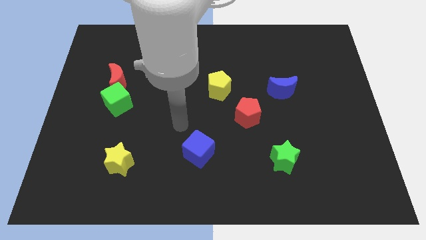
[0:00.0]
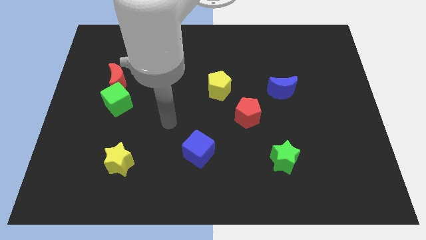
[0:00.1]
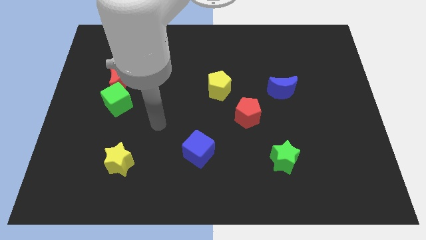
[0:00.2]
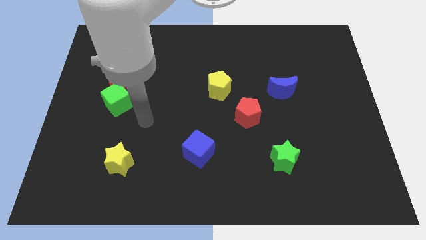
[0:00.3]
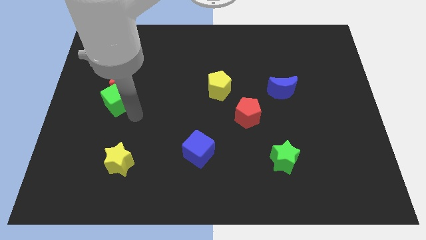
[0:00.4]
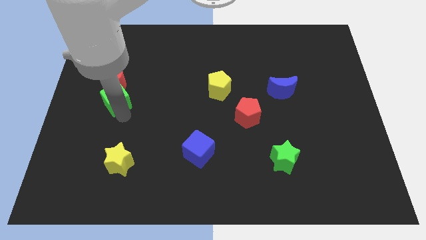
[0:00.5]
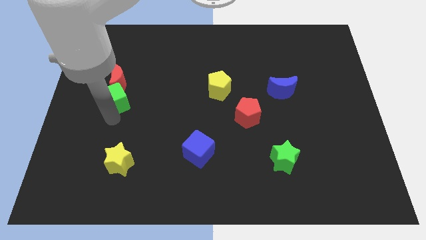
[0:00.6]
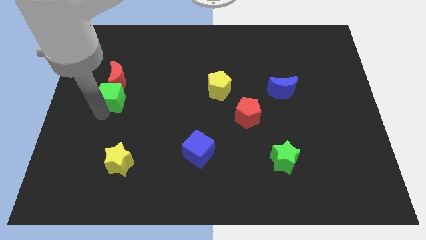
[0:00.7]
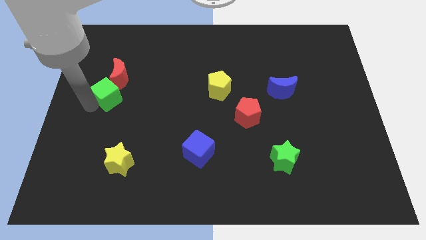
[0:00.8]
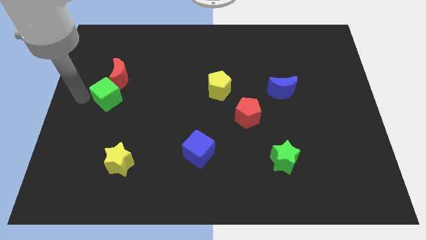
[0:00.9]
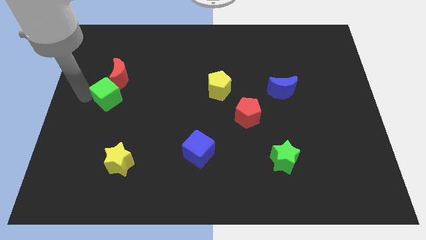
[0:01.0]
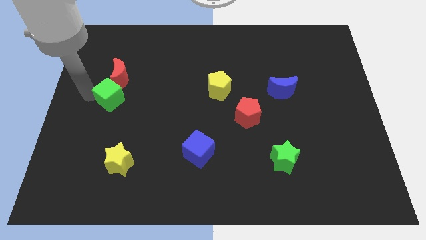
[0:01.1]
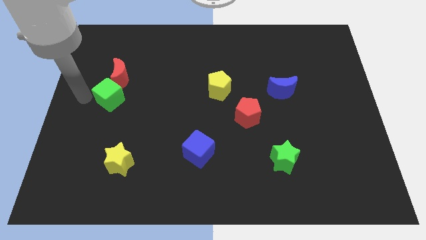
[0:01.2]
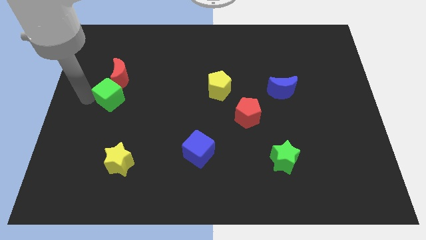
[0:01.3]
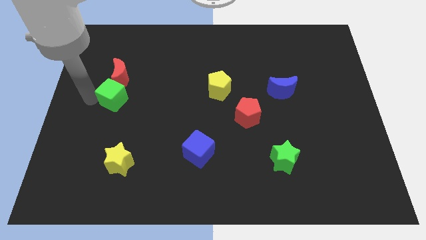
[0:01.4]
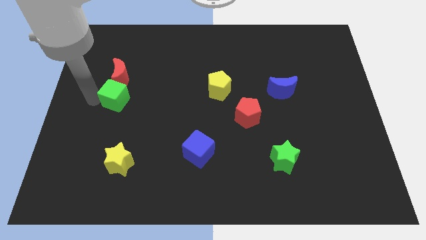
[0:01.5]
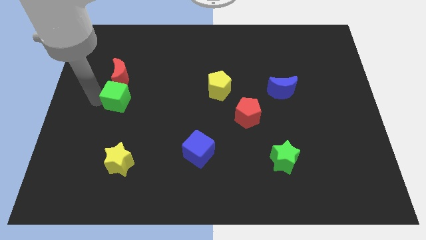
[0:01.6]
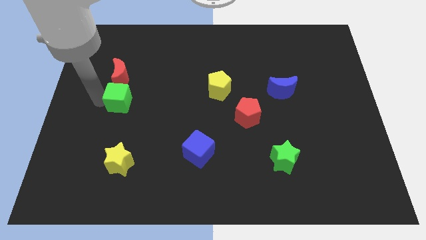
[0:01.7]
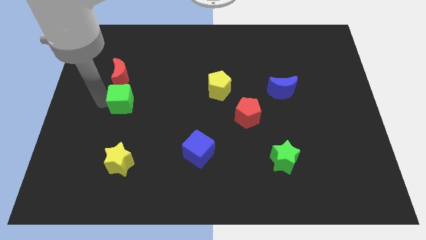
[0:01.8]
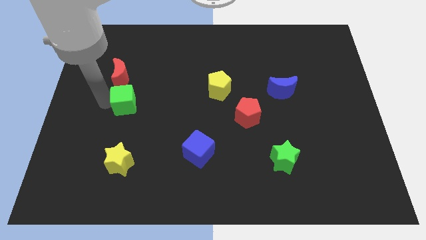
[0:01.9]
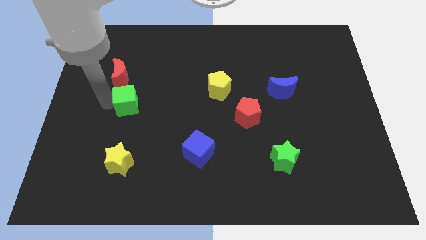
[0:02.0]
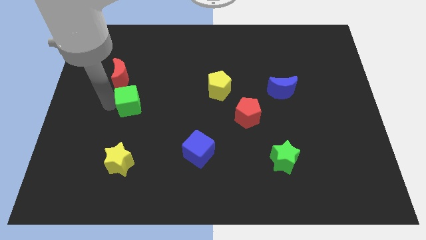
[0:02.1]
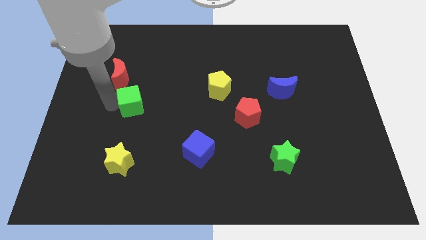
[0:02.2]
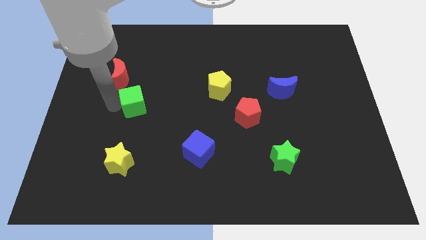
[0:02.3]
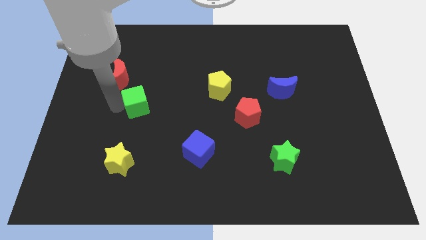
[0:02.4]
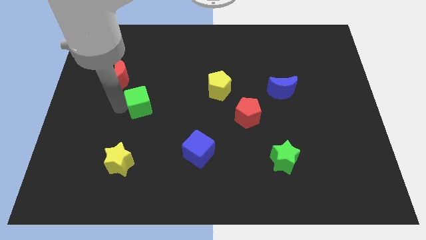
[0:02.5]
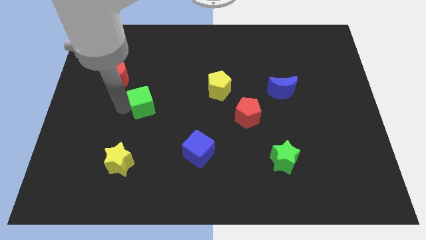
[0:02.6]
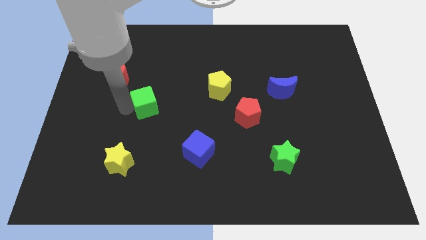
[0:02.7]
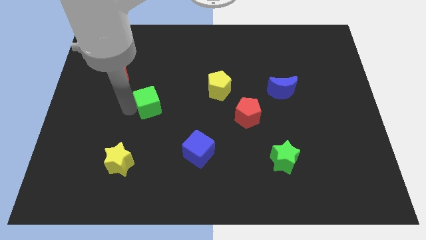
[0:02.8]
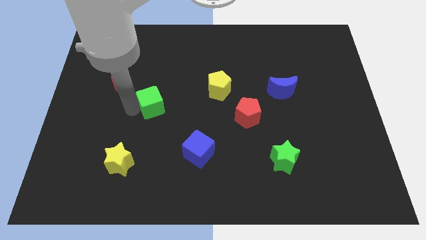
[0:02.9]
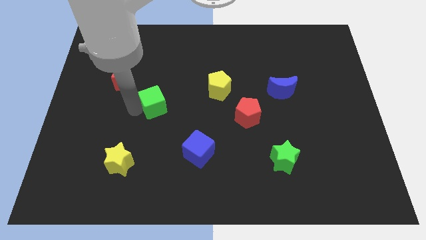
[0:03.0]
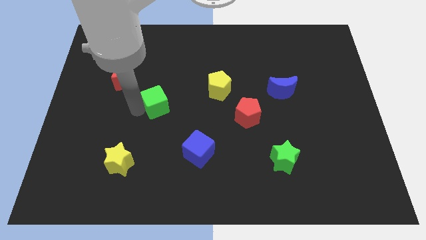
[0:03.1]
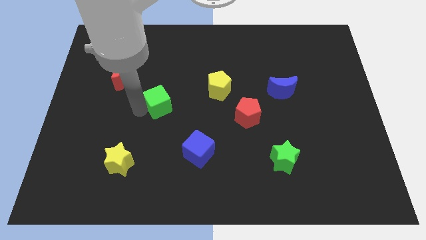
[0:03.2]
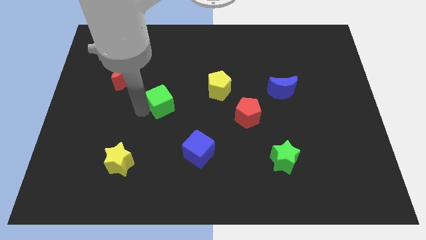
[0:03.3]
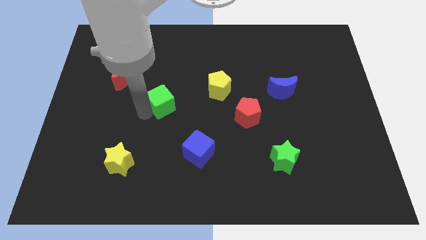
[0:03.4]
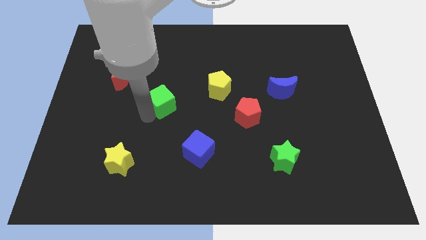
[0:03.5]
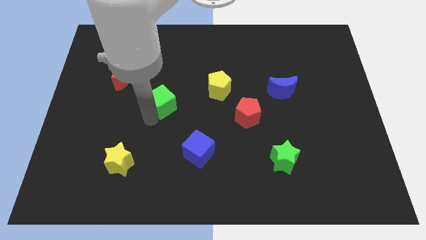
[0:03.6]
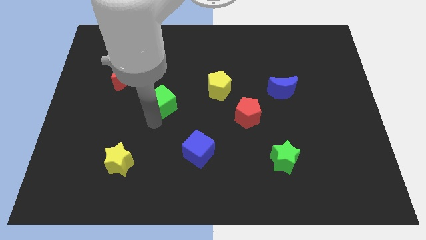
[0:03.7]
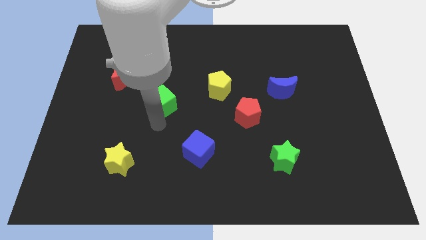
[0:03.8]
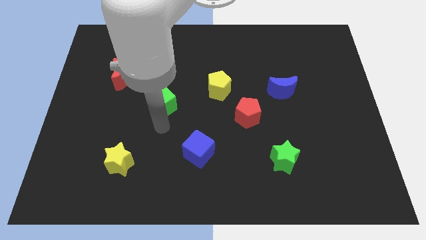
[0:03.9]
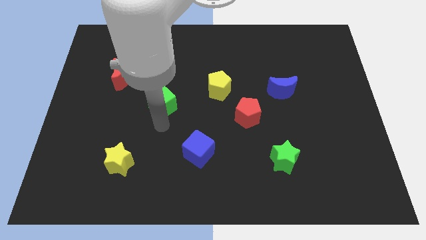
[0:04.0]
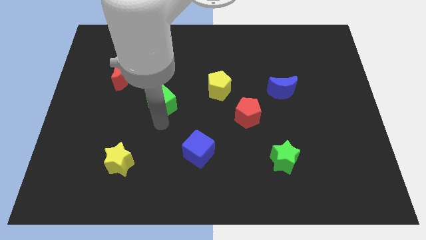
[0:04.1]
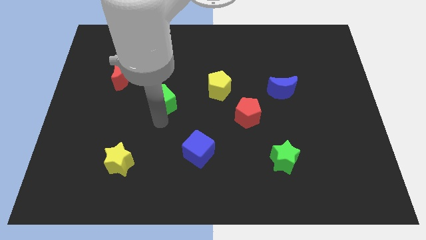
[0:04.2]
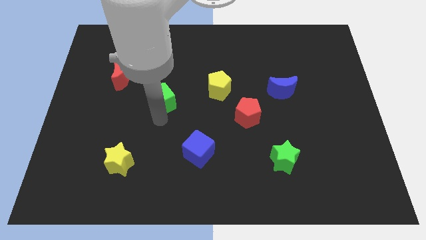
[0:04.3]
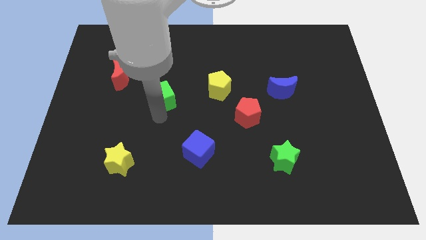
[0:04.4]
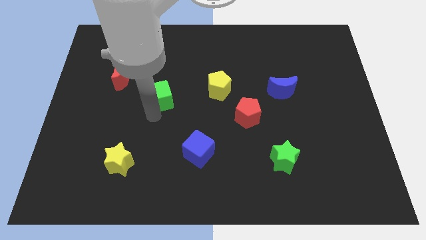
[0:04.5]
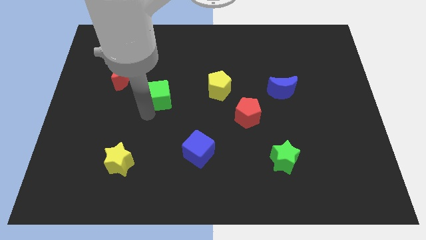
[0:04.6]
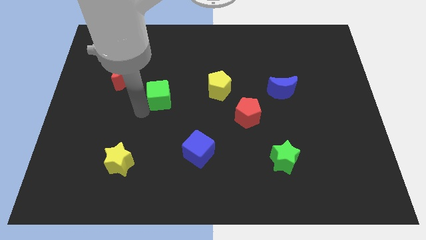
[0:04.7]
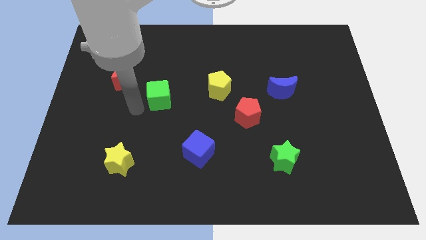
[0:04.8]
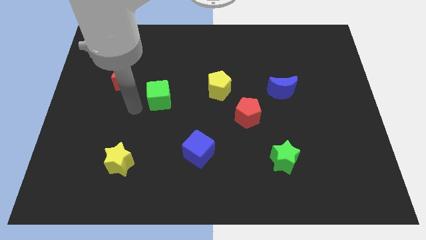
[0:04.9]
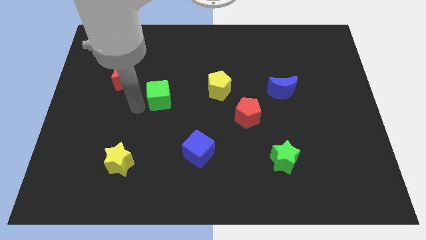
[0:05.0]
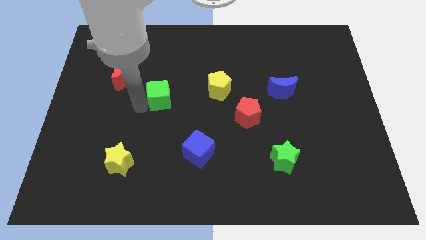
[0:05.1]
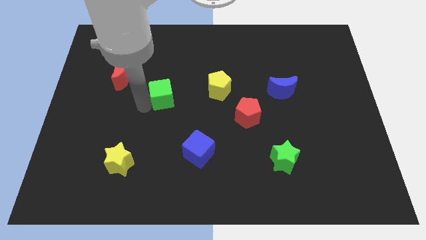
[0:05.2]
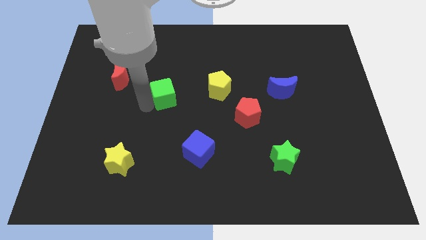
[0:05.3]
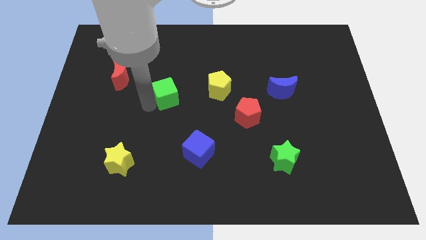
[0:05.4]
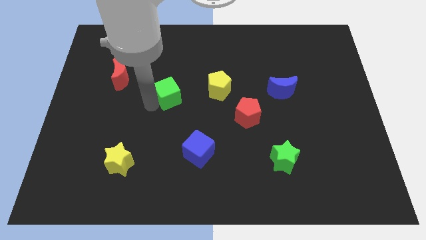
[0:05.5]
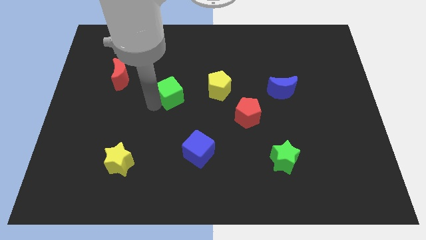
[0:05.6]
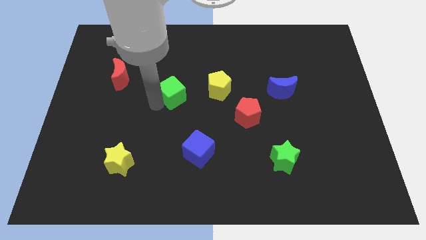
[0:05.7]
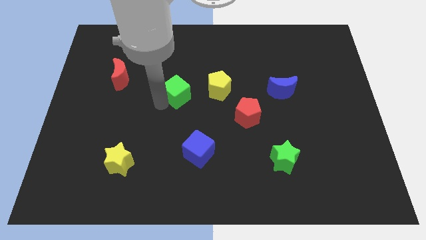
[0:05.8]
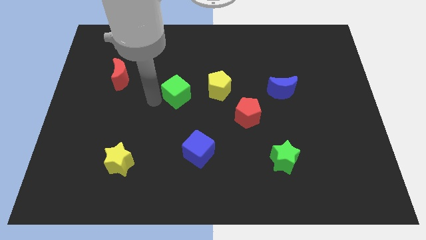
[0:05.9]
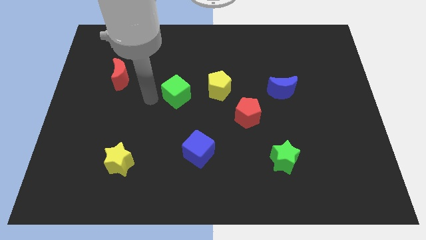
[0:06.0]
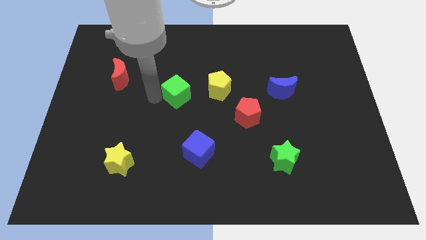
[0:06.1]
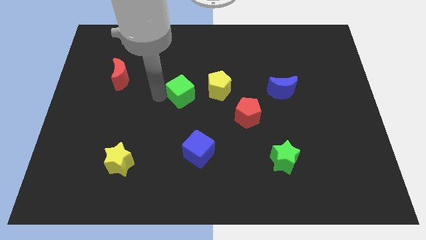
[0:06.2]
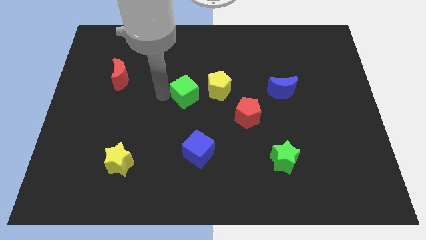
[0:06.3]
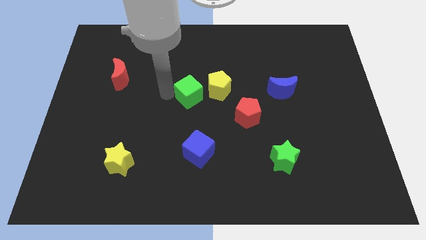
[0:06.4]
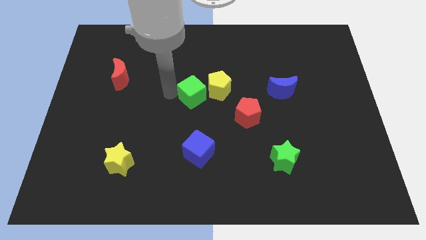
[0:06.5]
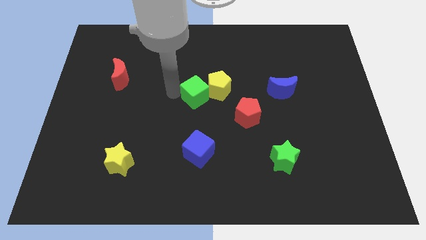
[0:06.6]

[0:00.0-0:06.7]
push the green cube to the yellow pentagon
